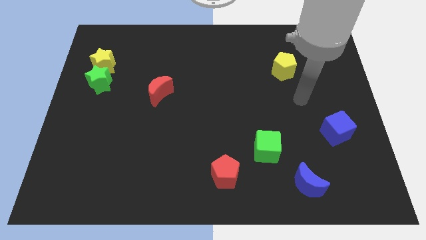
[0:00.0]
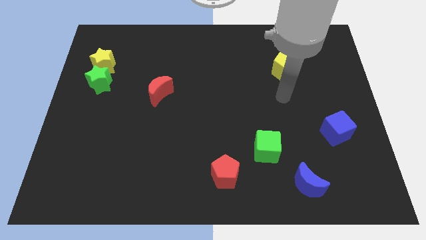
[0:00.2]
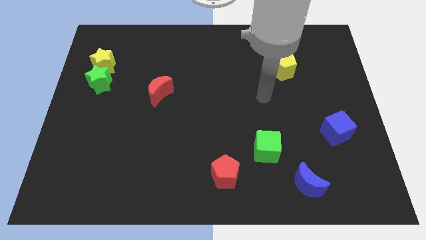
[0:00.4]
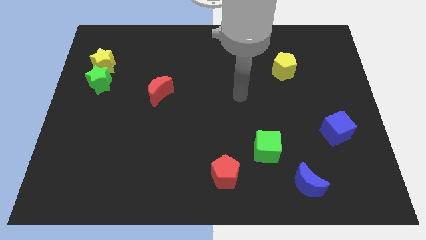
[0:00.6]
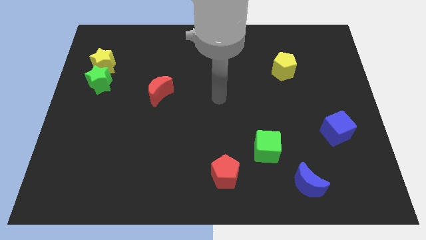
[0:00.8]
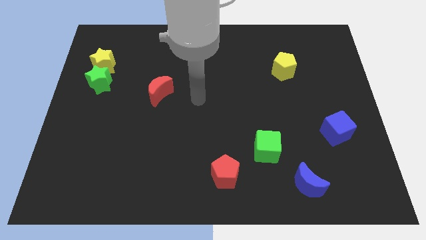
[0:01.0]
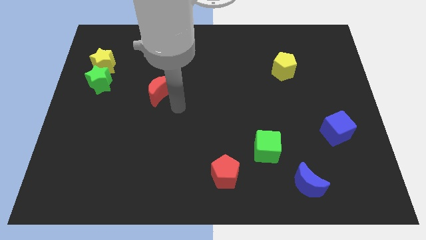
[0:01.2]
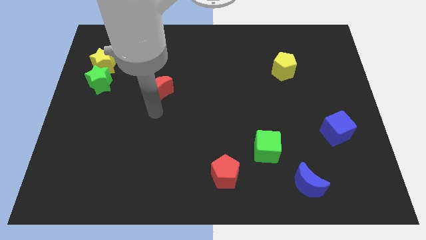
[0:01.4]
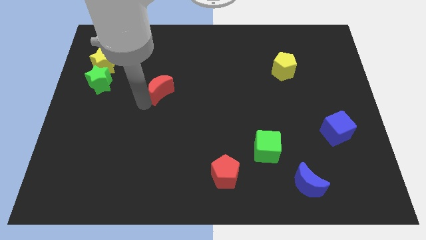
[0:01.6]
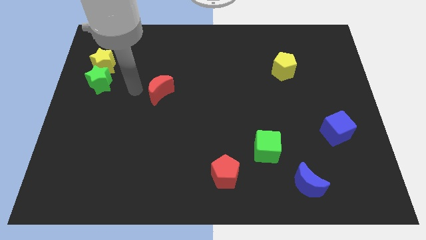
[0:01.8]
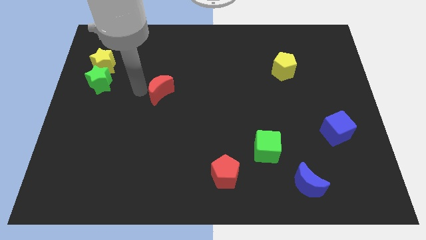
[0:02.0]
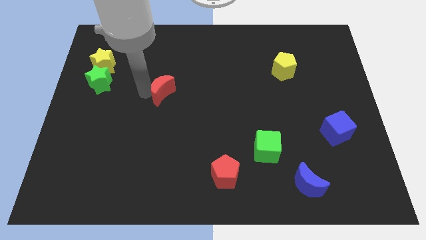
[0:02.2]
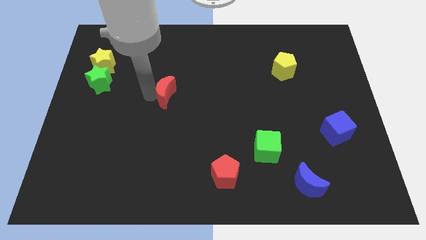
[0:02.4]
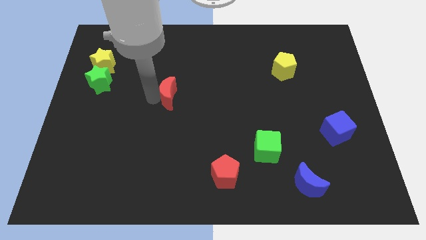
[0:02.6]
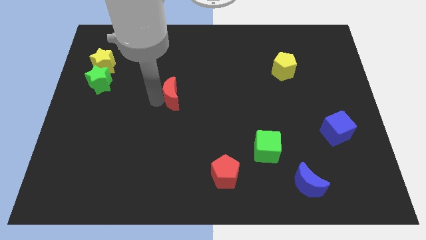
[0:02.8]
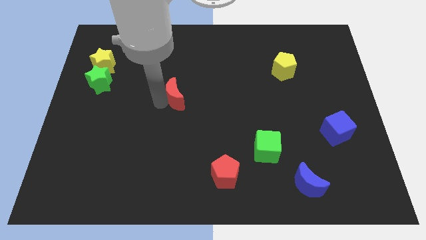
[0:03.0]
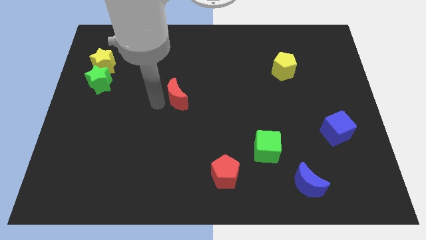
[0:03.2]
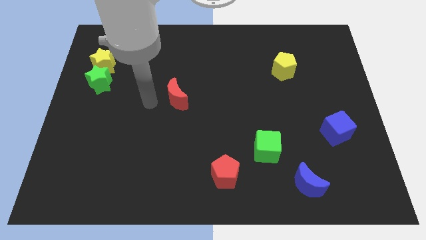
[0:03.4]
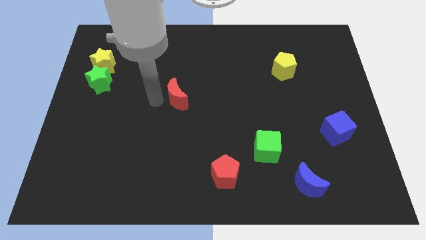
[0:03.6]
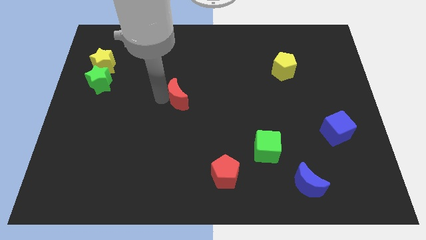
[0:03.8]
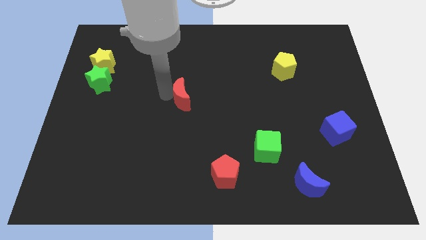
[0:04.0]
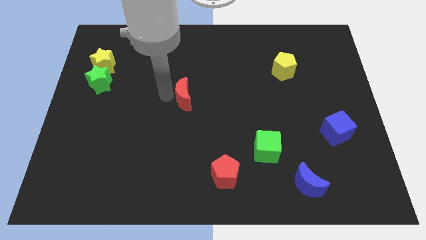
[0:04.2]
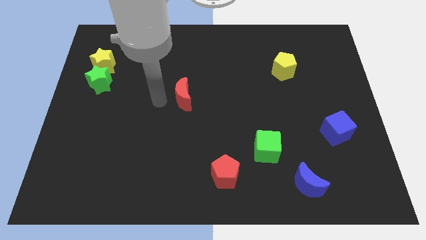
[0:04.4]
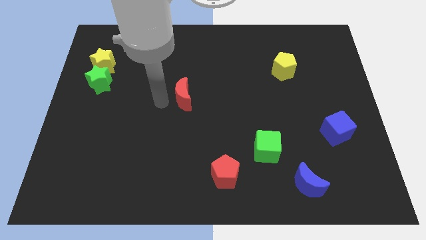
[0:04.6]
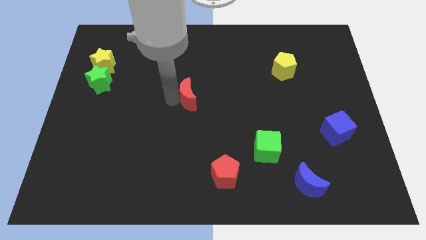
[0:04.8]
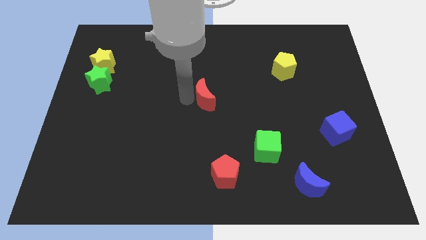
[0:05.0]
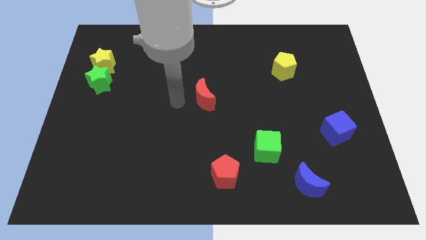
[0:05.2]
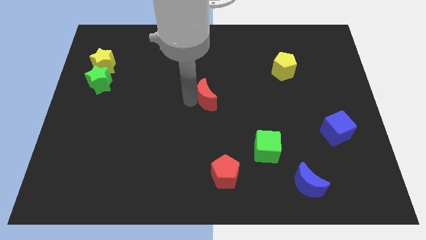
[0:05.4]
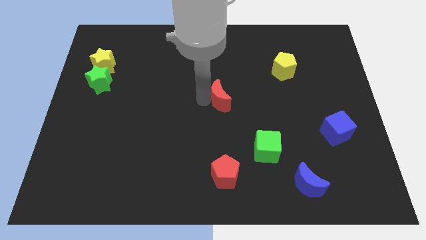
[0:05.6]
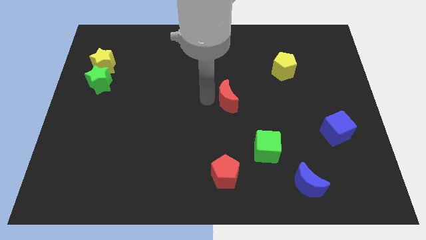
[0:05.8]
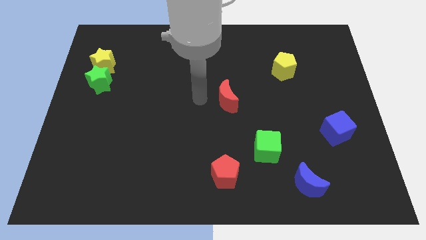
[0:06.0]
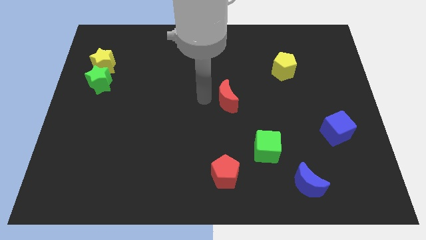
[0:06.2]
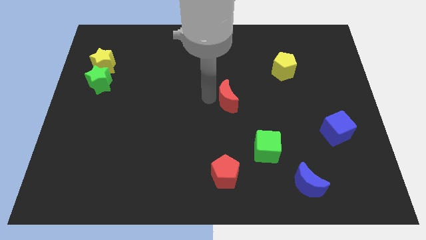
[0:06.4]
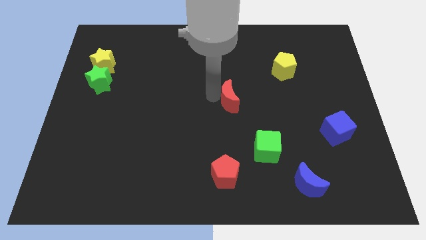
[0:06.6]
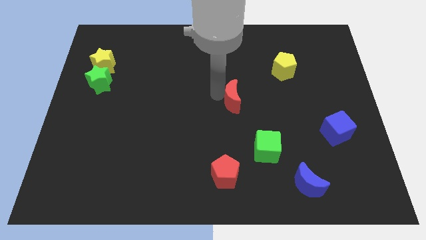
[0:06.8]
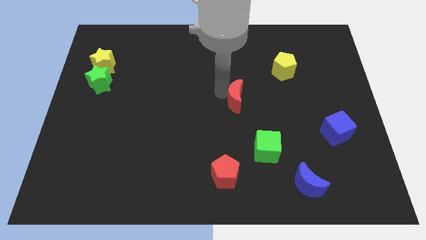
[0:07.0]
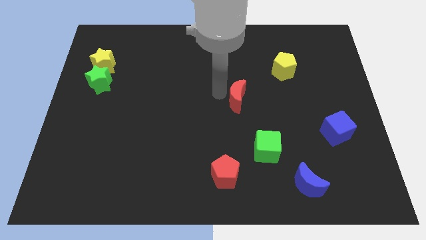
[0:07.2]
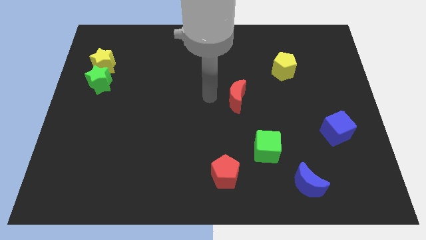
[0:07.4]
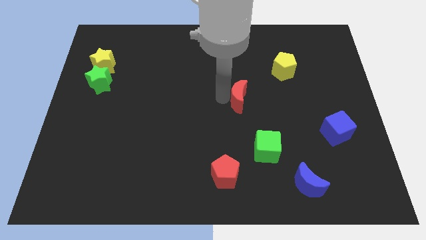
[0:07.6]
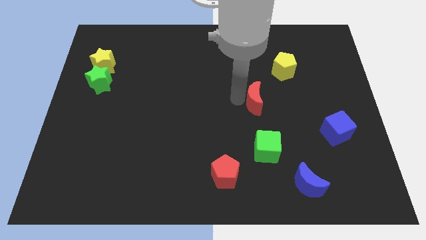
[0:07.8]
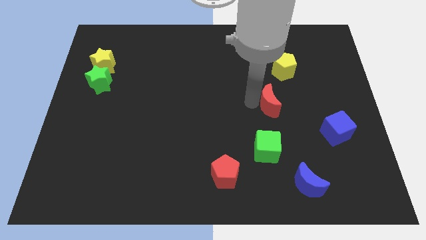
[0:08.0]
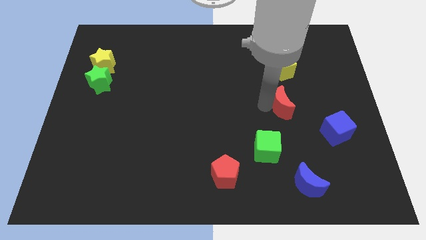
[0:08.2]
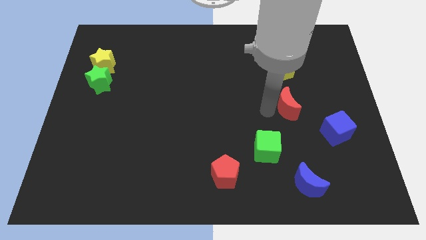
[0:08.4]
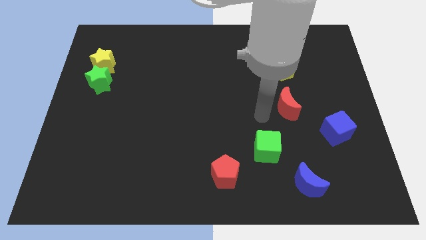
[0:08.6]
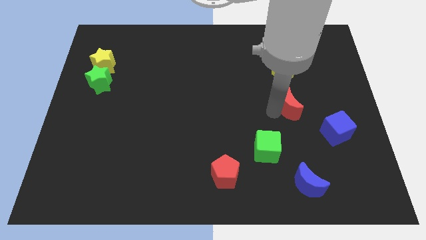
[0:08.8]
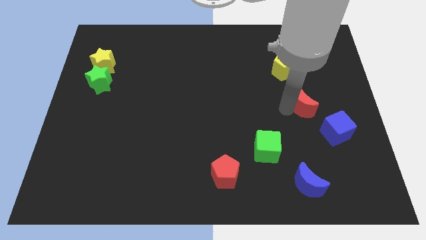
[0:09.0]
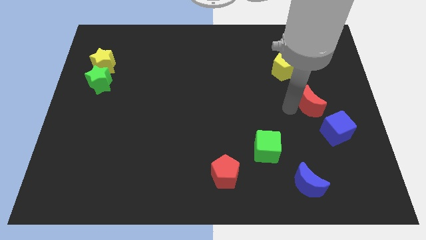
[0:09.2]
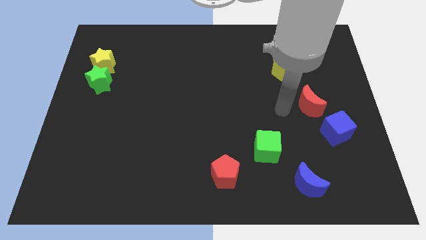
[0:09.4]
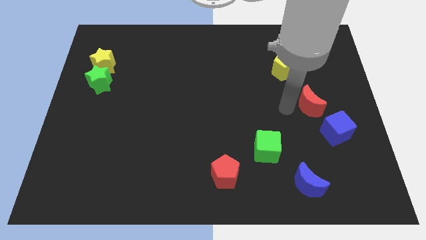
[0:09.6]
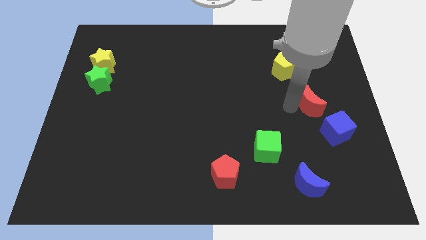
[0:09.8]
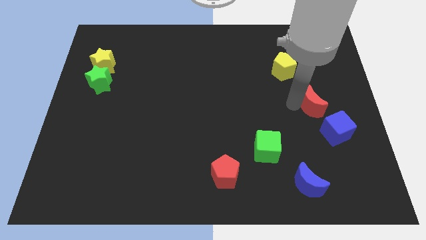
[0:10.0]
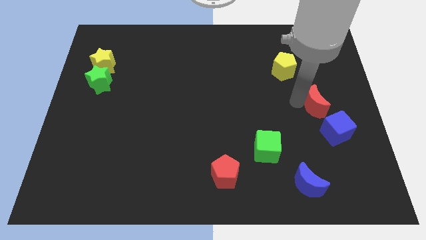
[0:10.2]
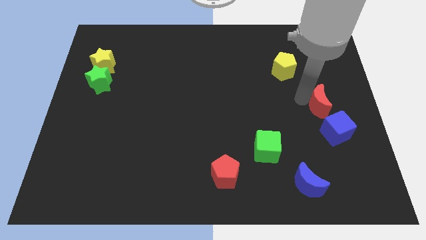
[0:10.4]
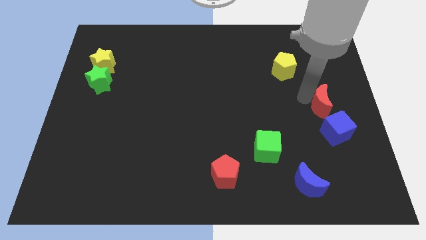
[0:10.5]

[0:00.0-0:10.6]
move the red moon to the center right
